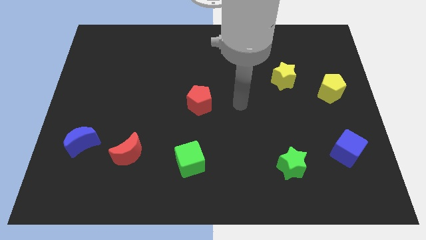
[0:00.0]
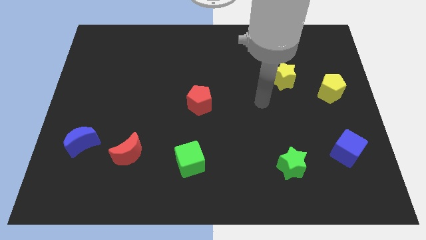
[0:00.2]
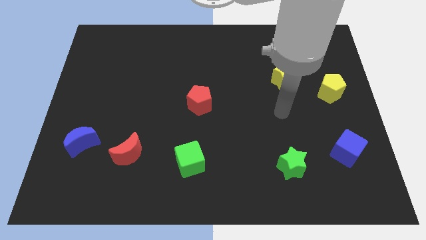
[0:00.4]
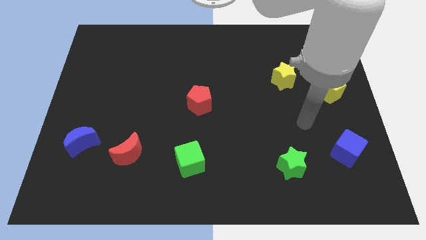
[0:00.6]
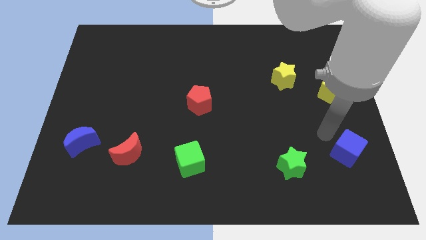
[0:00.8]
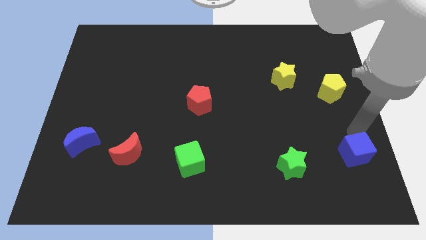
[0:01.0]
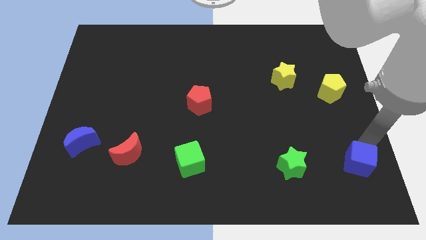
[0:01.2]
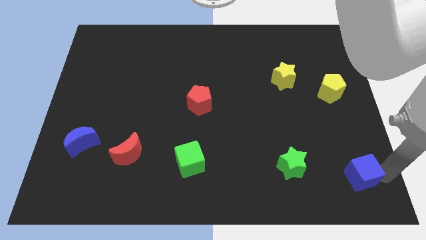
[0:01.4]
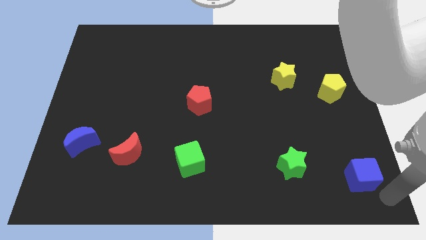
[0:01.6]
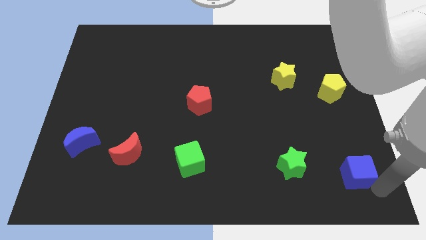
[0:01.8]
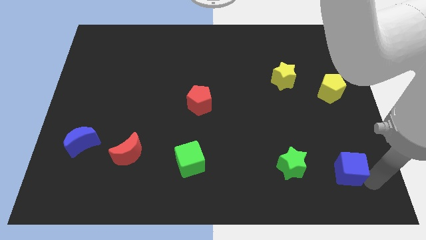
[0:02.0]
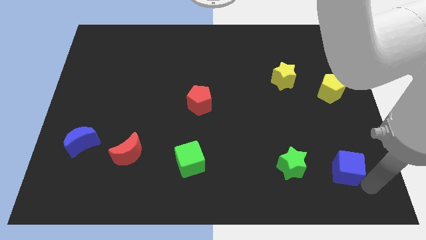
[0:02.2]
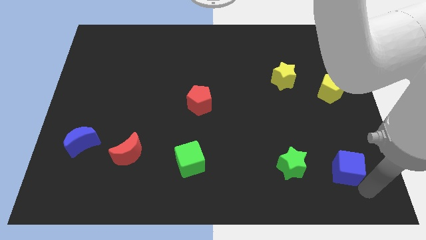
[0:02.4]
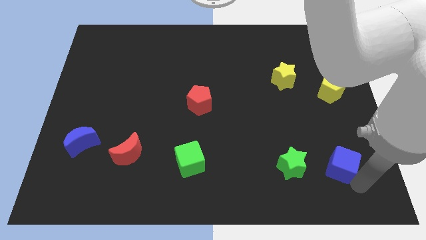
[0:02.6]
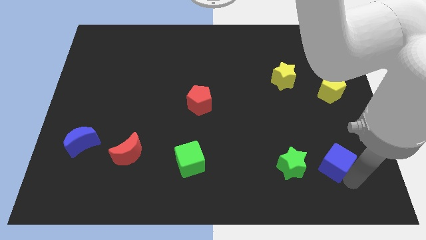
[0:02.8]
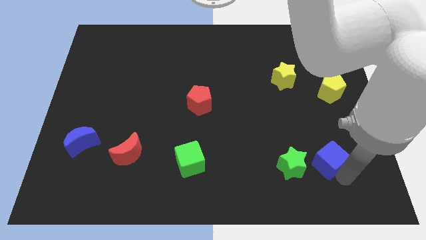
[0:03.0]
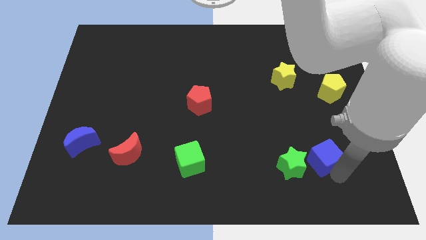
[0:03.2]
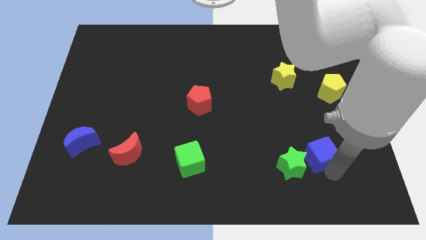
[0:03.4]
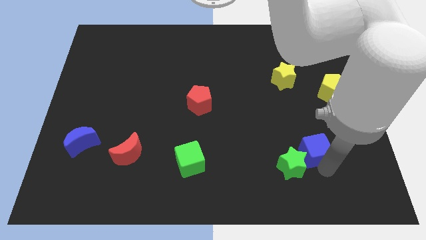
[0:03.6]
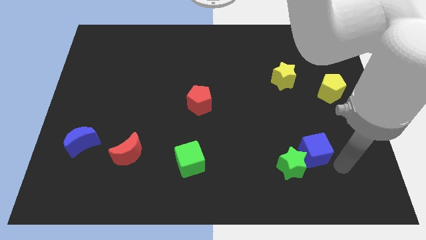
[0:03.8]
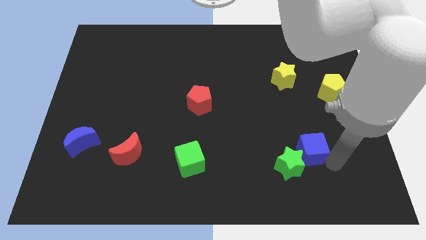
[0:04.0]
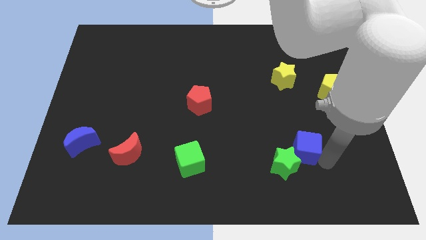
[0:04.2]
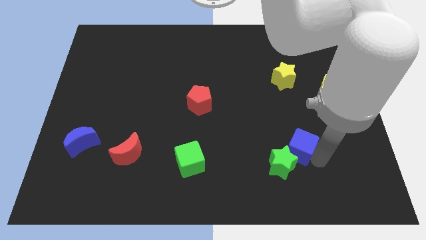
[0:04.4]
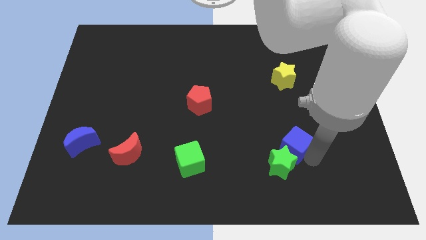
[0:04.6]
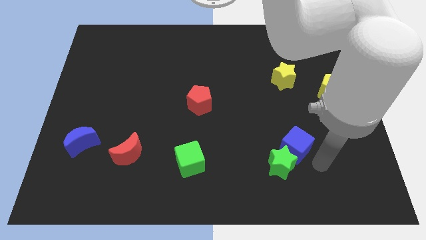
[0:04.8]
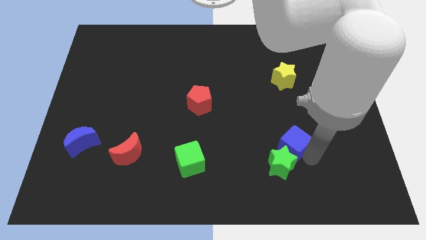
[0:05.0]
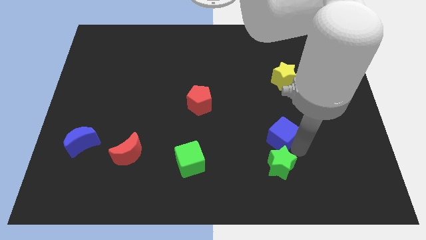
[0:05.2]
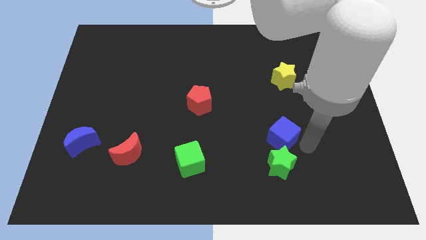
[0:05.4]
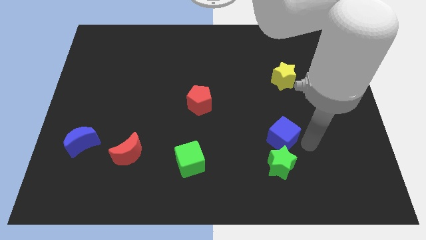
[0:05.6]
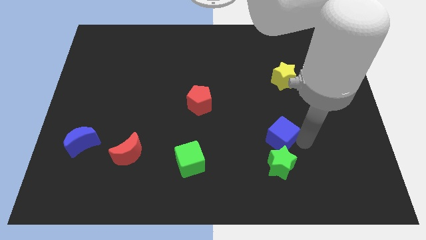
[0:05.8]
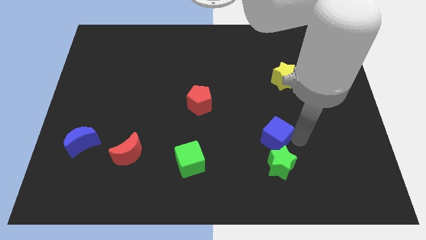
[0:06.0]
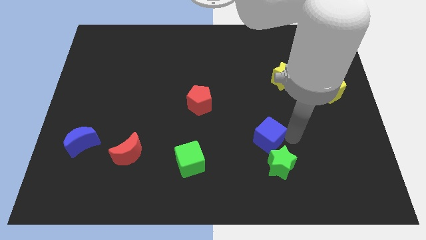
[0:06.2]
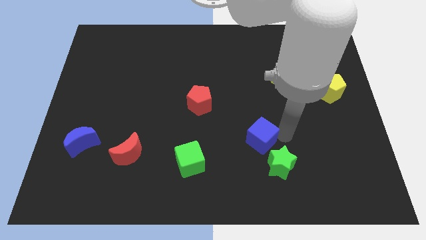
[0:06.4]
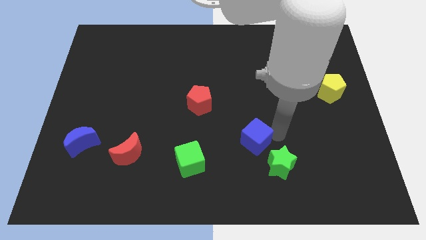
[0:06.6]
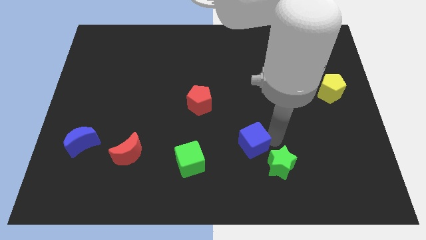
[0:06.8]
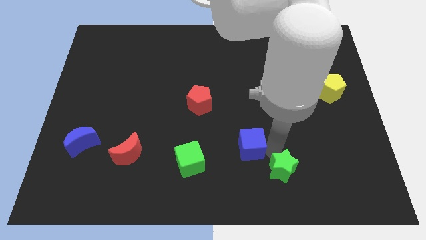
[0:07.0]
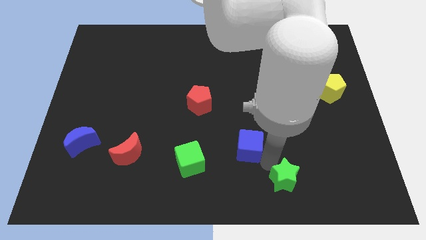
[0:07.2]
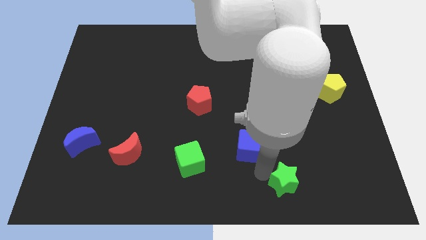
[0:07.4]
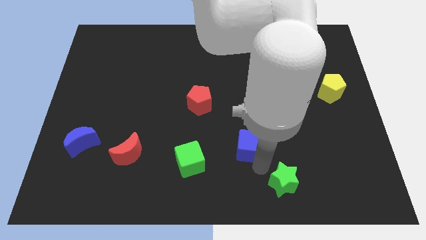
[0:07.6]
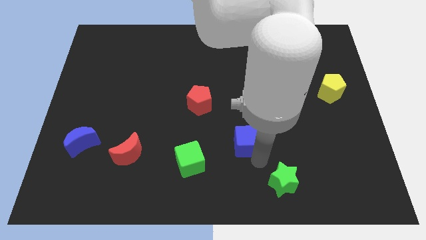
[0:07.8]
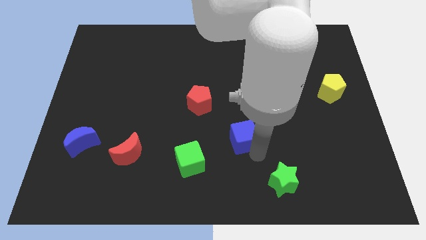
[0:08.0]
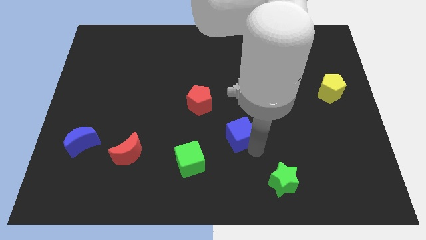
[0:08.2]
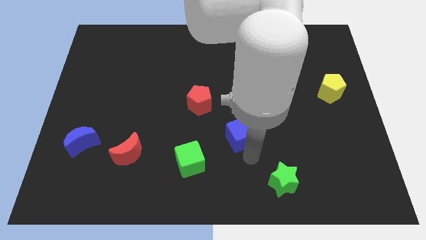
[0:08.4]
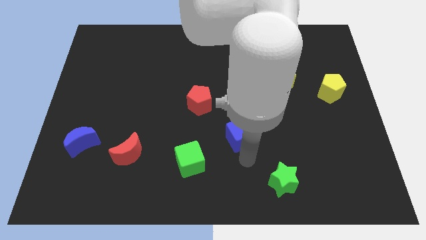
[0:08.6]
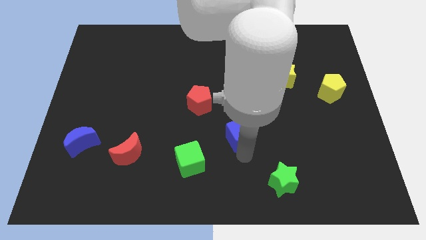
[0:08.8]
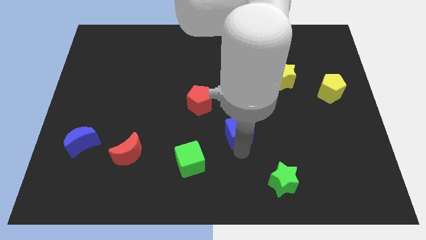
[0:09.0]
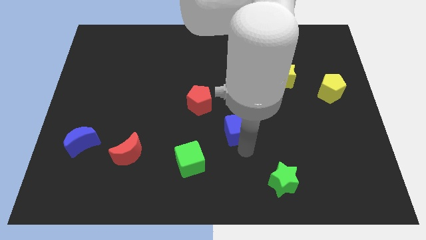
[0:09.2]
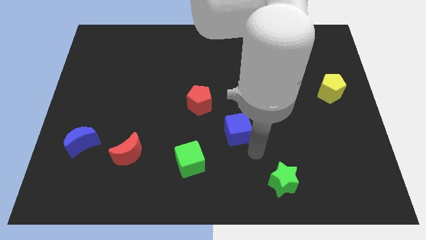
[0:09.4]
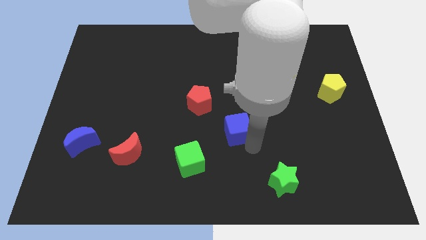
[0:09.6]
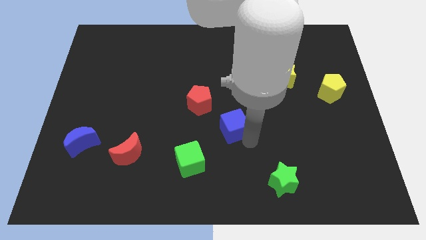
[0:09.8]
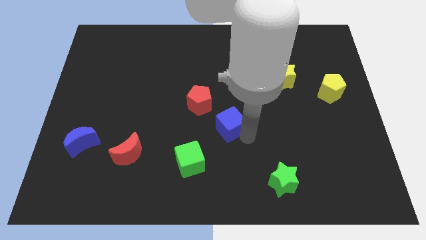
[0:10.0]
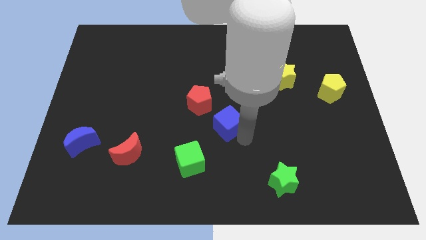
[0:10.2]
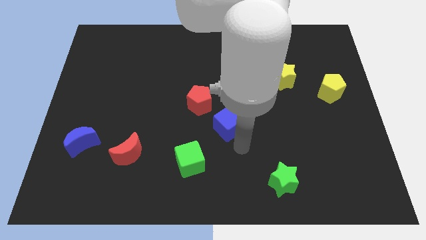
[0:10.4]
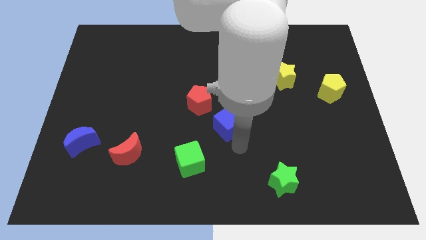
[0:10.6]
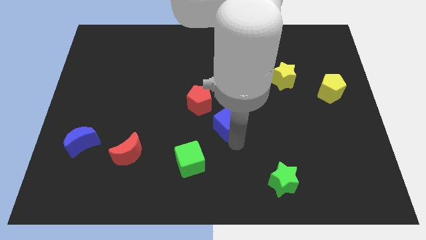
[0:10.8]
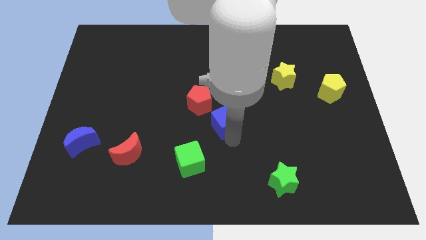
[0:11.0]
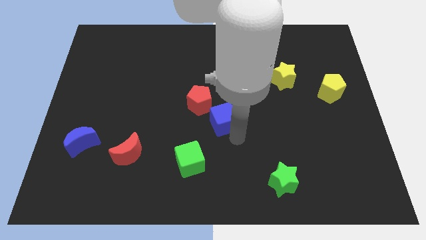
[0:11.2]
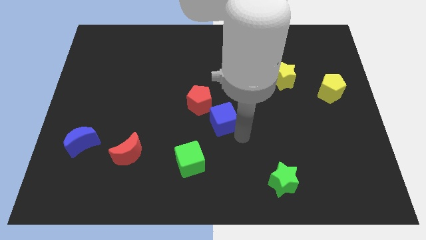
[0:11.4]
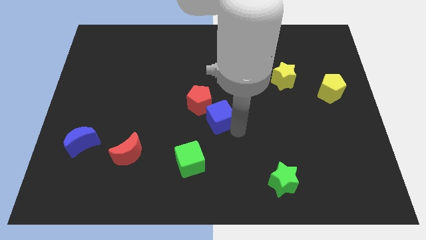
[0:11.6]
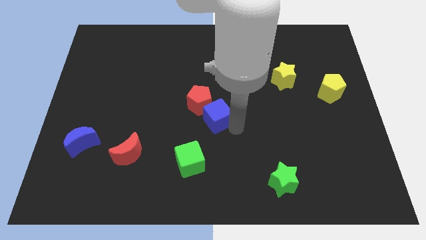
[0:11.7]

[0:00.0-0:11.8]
put the blue cube to the red pentagon

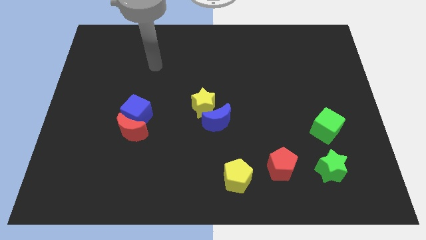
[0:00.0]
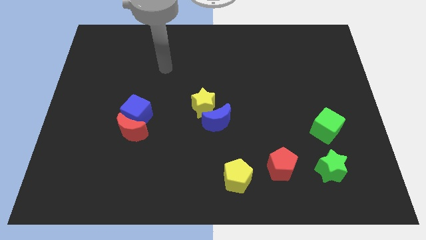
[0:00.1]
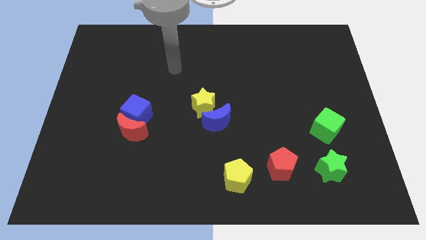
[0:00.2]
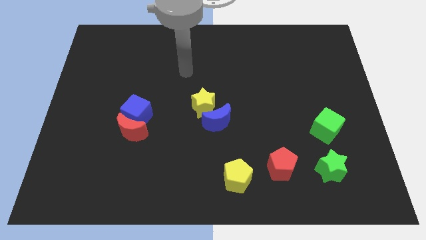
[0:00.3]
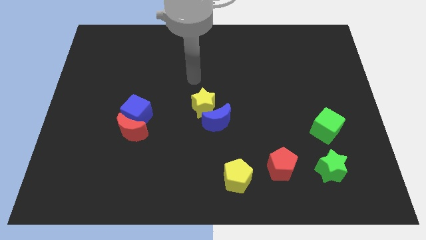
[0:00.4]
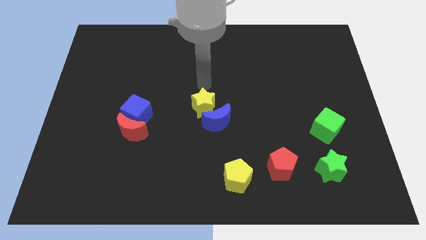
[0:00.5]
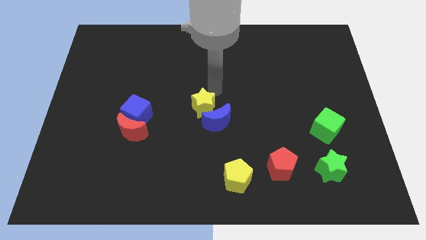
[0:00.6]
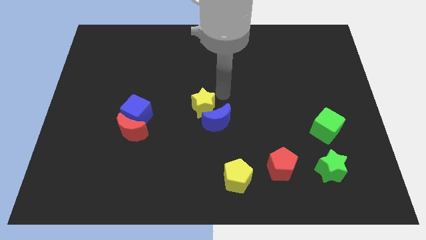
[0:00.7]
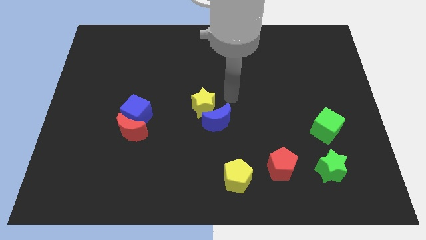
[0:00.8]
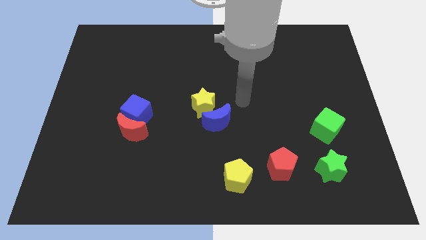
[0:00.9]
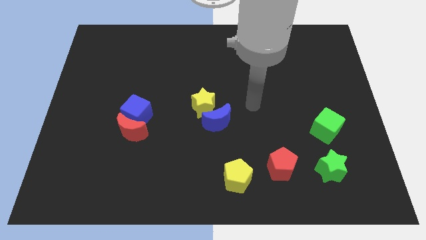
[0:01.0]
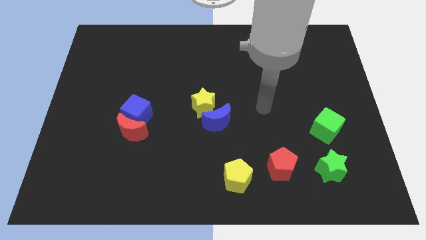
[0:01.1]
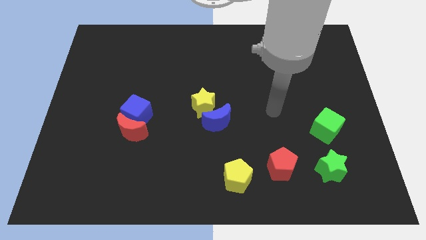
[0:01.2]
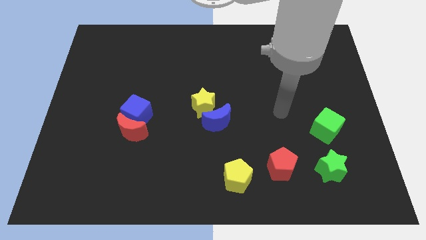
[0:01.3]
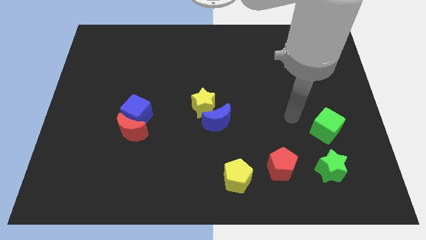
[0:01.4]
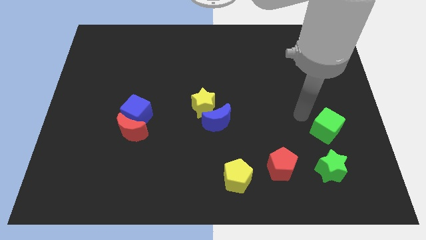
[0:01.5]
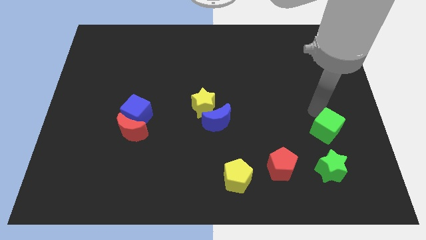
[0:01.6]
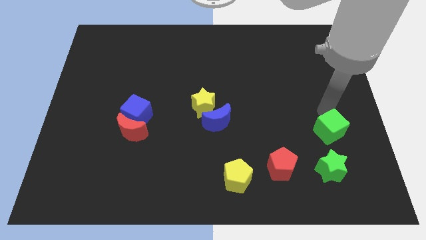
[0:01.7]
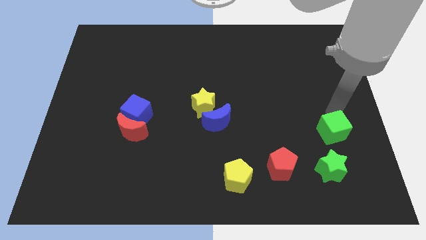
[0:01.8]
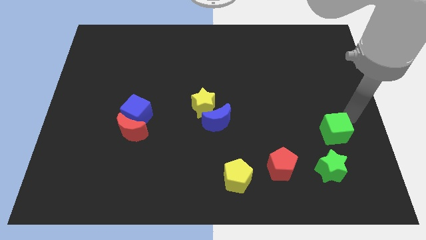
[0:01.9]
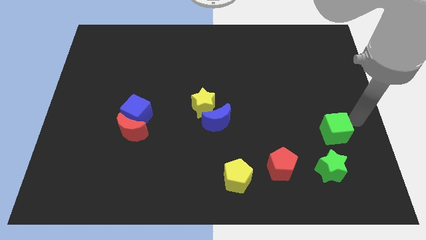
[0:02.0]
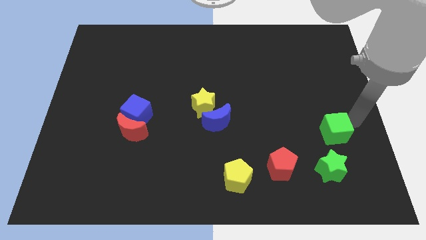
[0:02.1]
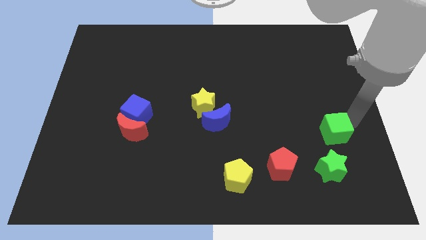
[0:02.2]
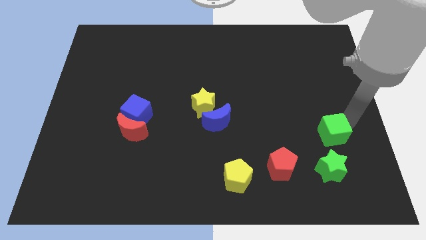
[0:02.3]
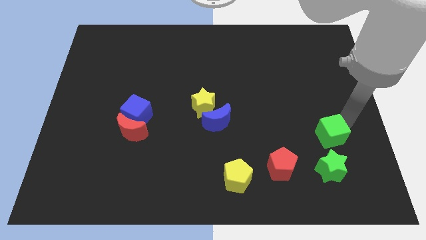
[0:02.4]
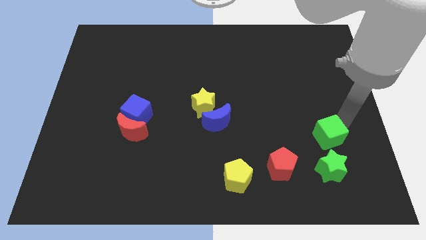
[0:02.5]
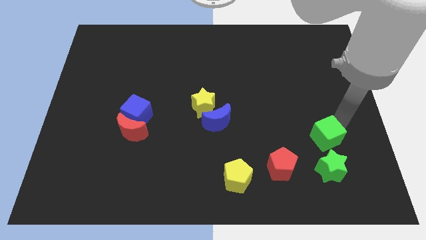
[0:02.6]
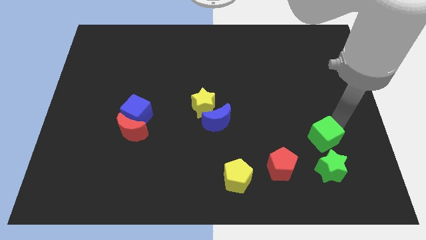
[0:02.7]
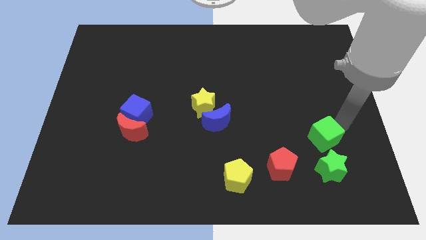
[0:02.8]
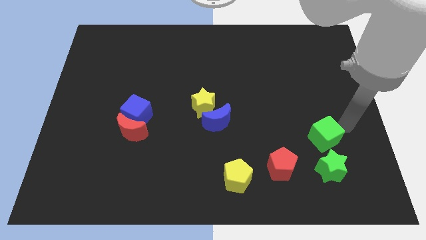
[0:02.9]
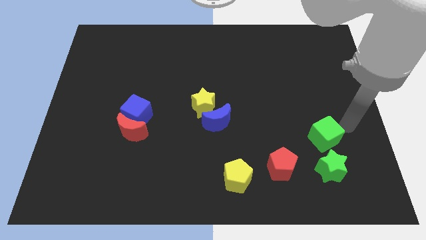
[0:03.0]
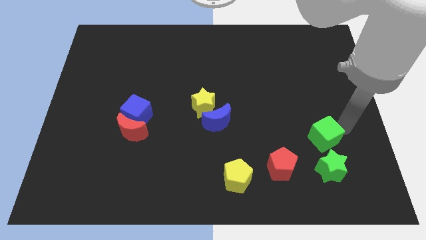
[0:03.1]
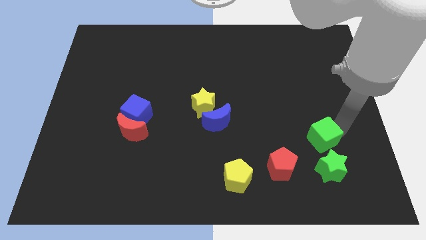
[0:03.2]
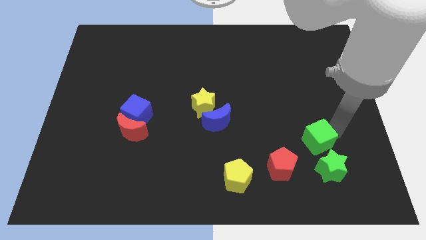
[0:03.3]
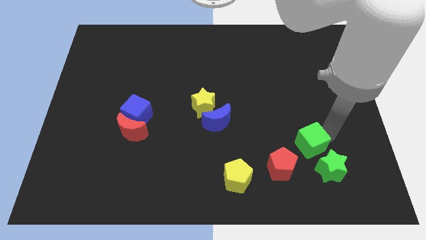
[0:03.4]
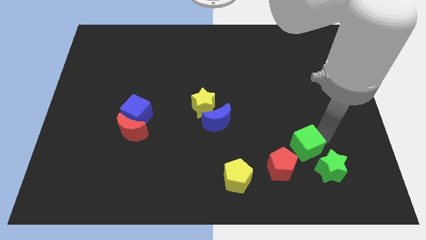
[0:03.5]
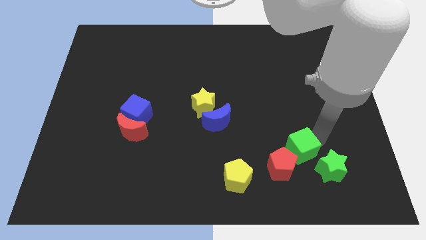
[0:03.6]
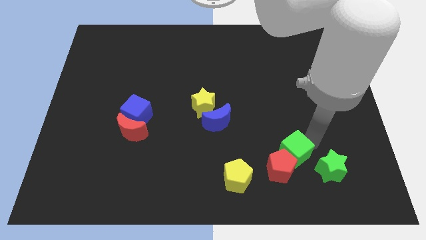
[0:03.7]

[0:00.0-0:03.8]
move the green cube towards the red pentagon
